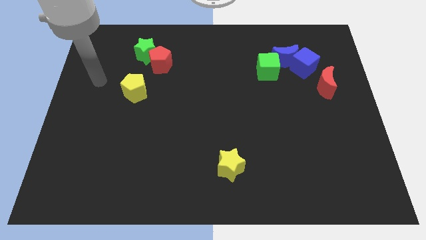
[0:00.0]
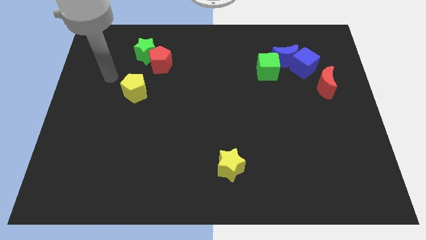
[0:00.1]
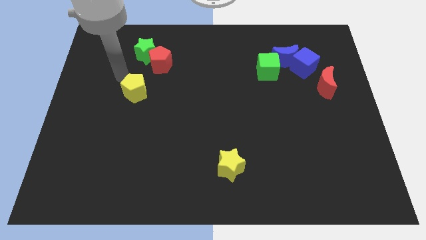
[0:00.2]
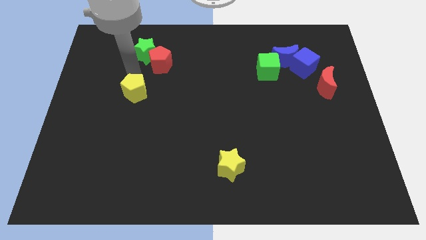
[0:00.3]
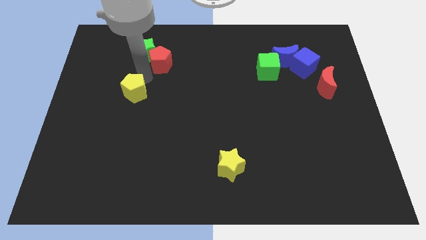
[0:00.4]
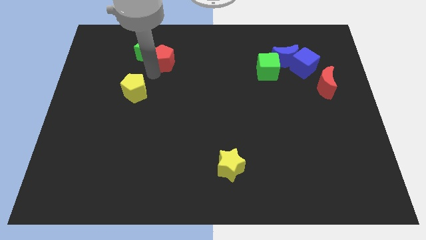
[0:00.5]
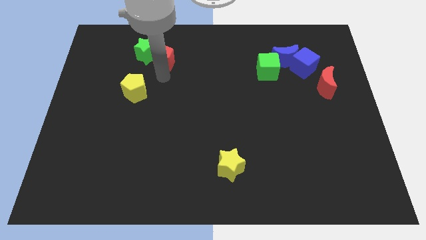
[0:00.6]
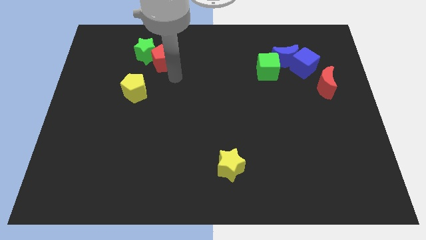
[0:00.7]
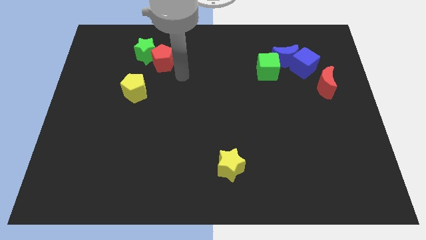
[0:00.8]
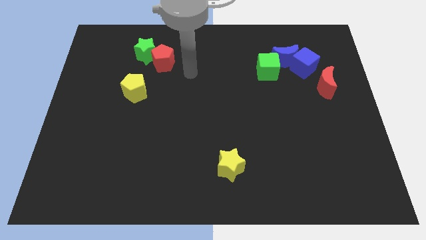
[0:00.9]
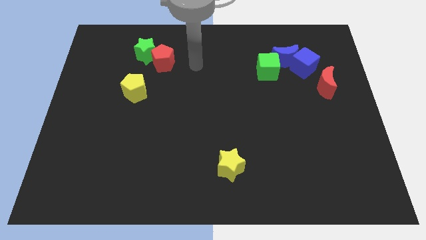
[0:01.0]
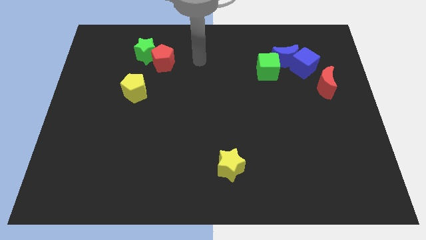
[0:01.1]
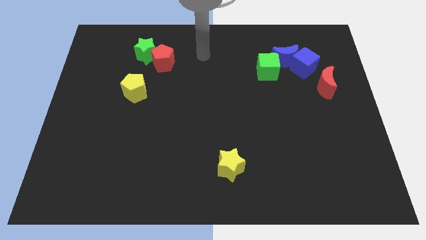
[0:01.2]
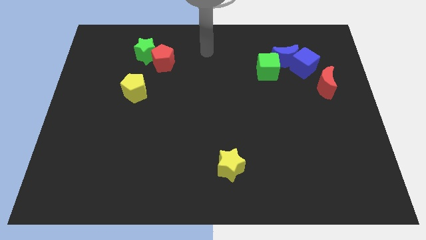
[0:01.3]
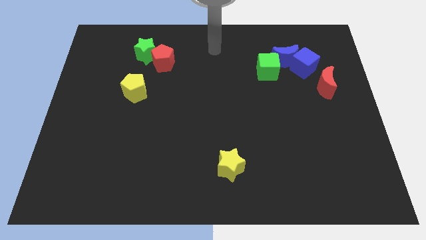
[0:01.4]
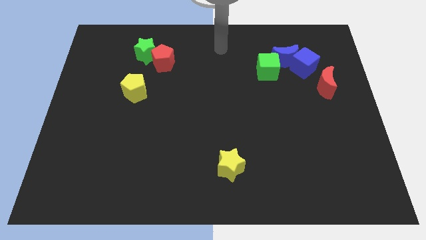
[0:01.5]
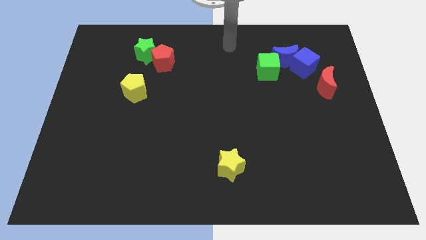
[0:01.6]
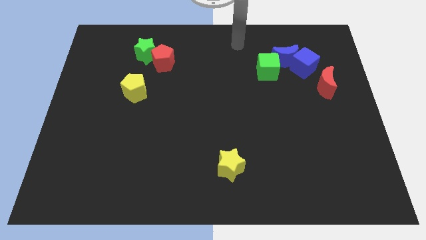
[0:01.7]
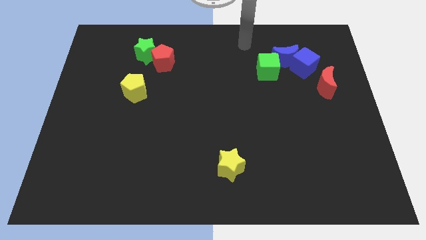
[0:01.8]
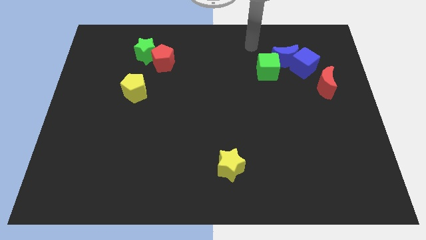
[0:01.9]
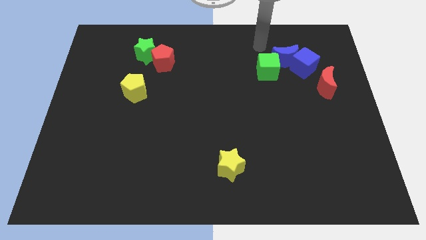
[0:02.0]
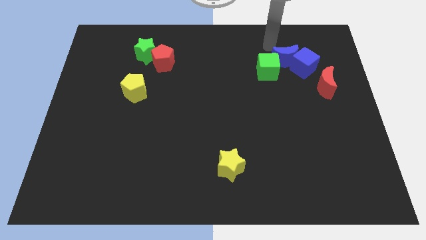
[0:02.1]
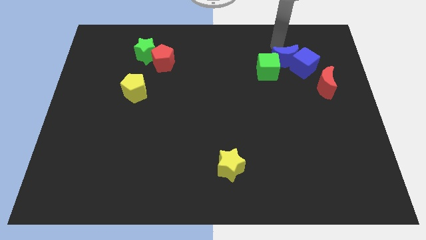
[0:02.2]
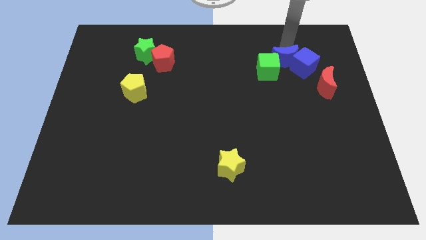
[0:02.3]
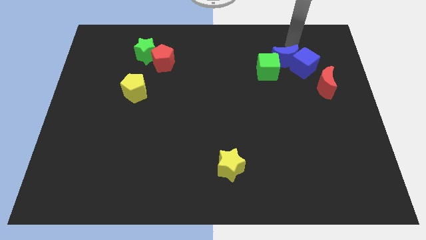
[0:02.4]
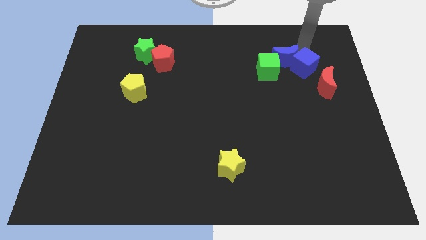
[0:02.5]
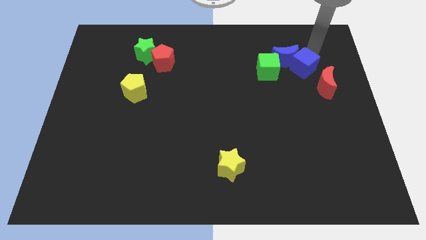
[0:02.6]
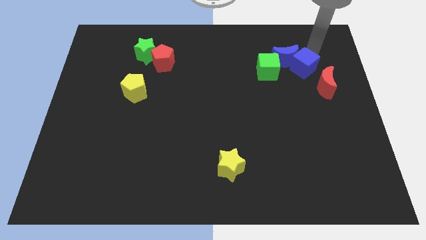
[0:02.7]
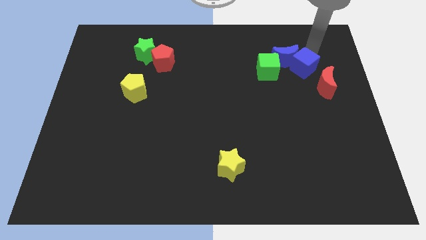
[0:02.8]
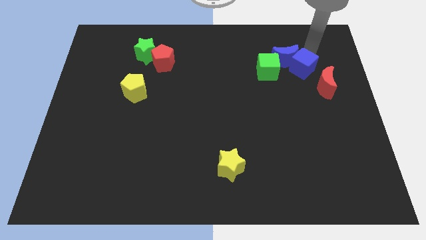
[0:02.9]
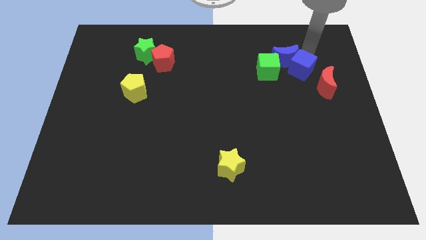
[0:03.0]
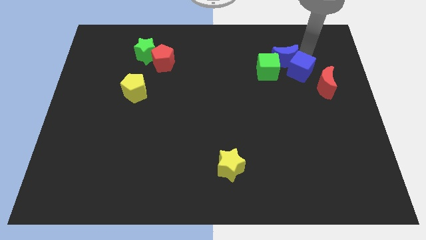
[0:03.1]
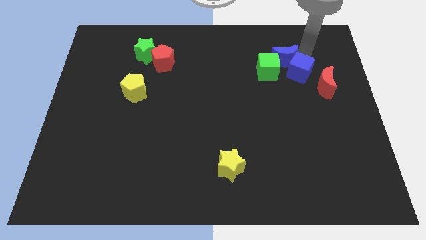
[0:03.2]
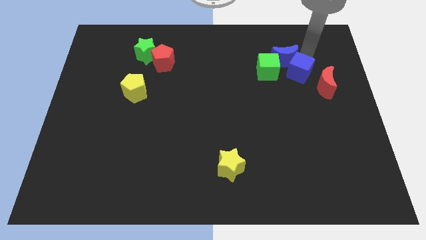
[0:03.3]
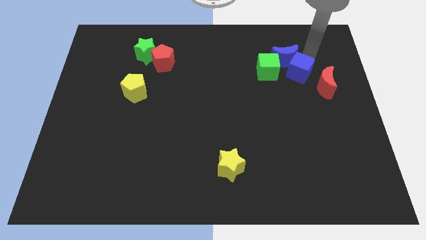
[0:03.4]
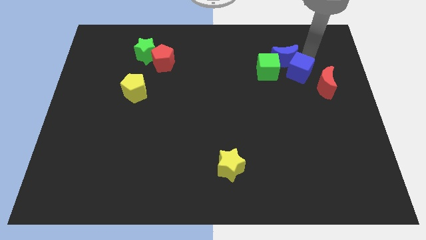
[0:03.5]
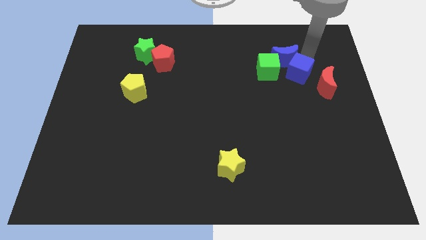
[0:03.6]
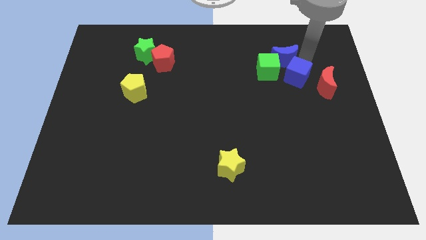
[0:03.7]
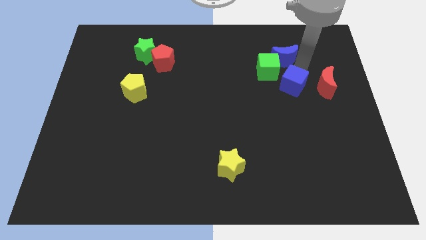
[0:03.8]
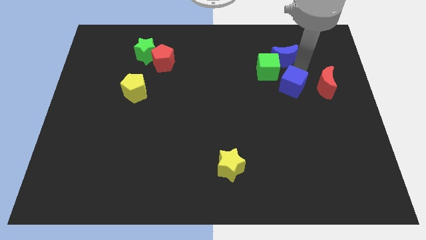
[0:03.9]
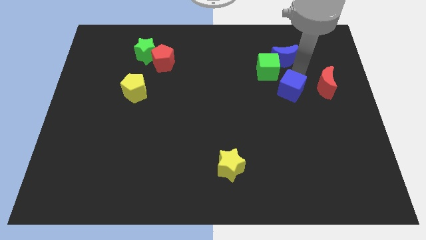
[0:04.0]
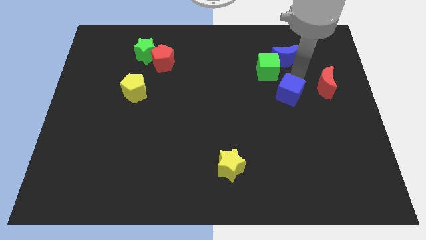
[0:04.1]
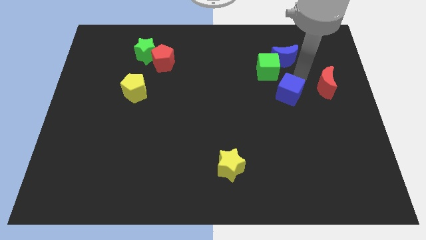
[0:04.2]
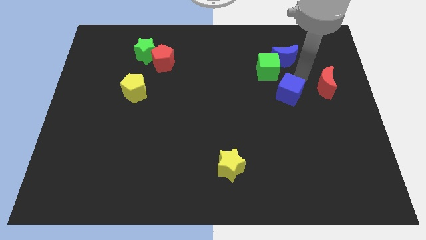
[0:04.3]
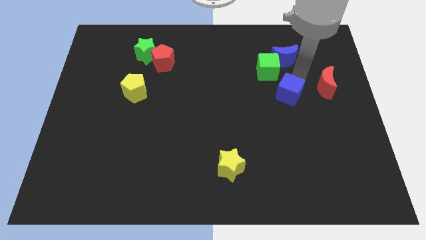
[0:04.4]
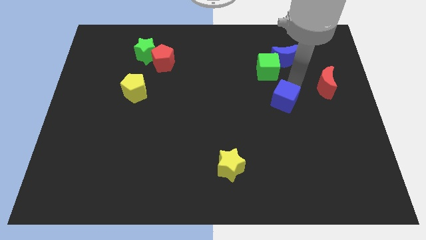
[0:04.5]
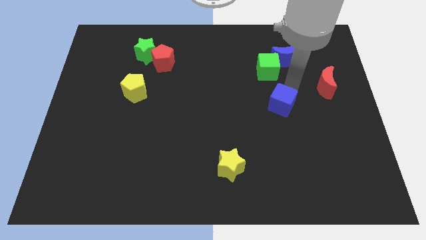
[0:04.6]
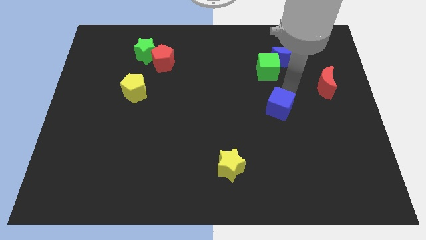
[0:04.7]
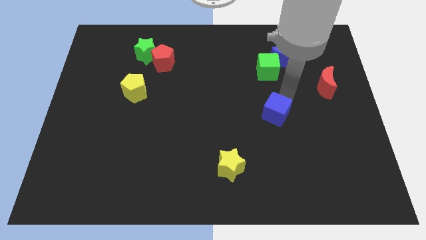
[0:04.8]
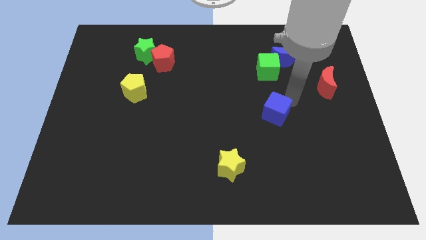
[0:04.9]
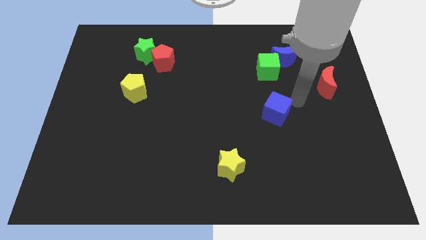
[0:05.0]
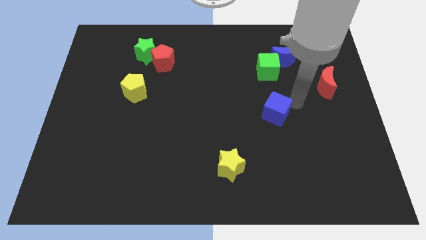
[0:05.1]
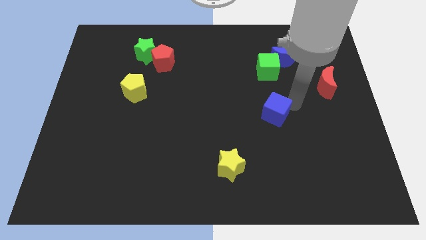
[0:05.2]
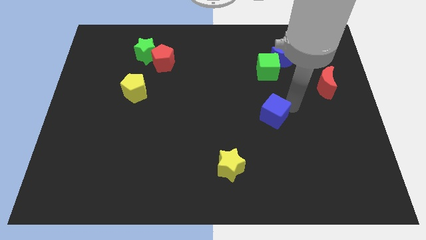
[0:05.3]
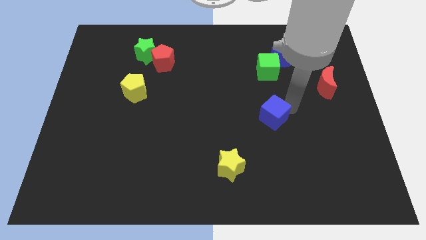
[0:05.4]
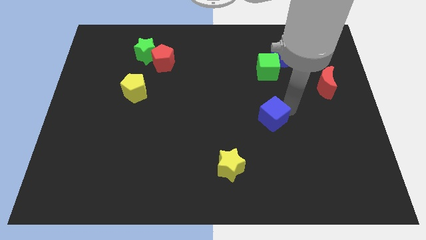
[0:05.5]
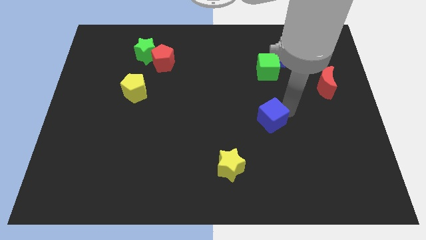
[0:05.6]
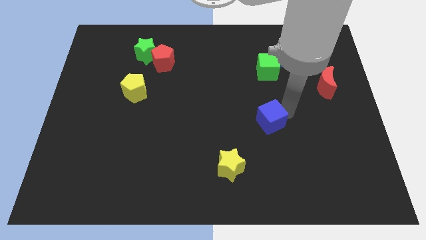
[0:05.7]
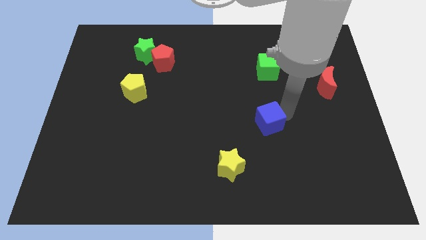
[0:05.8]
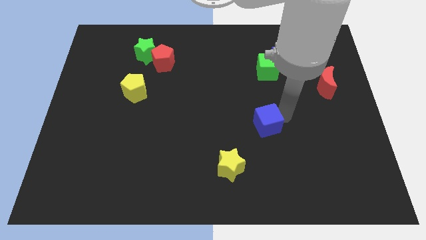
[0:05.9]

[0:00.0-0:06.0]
move the blue cube downwards and to the left

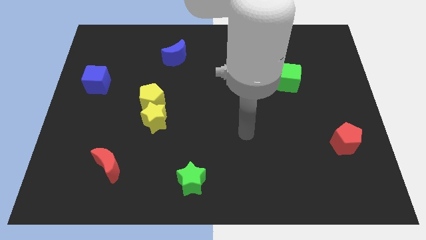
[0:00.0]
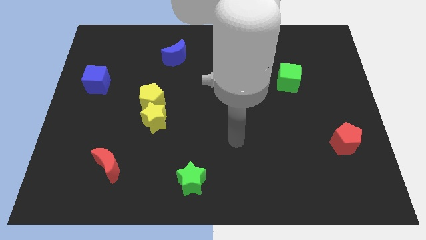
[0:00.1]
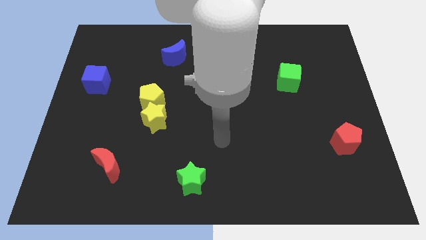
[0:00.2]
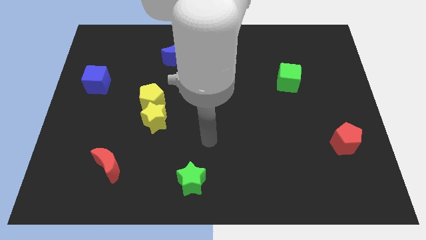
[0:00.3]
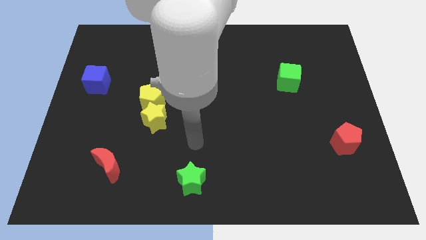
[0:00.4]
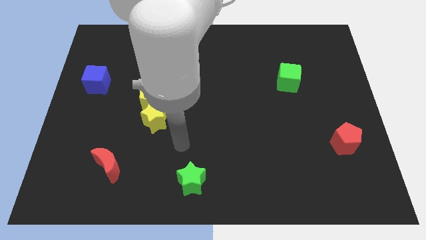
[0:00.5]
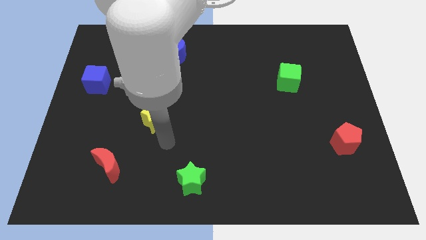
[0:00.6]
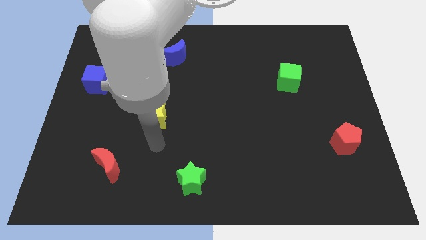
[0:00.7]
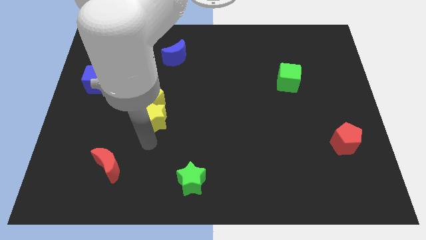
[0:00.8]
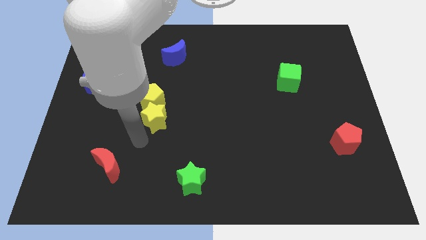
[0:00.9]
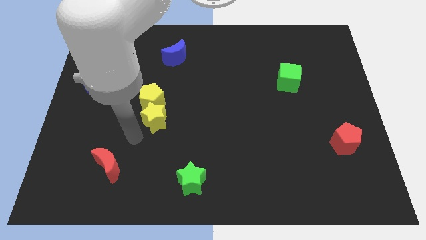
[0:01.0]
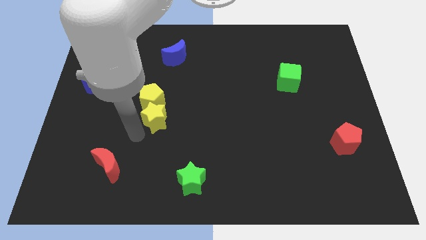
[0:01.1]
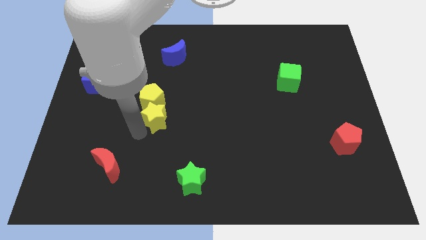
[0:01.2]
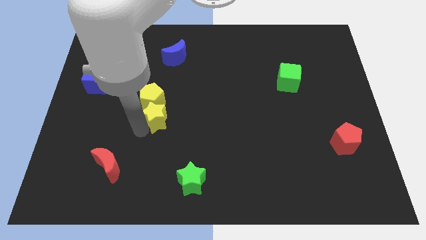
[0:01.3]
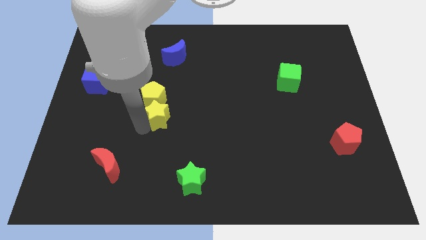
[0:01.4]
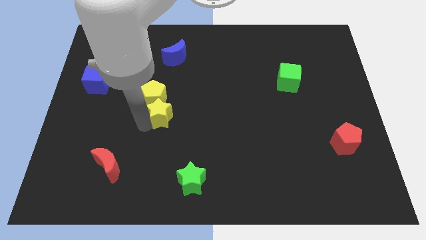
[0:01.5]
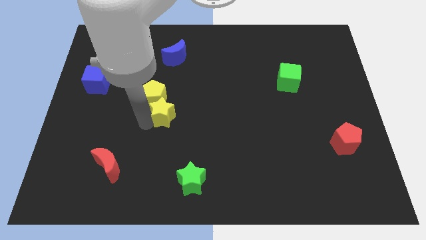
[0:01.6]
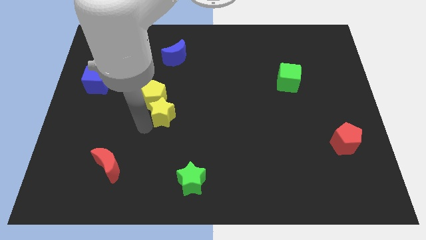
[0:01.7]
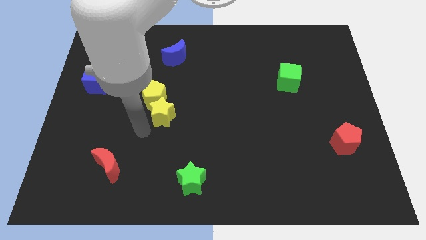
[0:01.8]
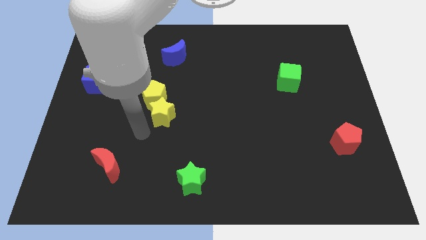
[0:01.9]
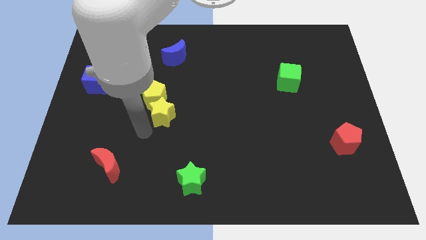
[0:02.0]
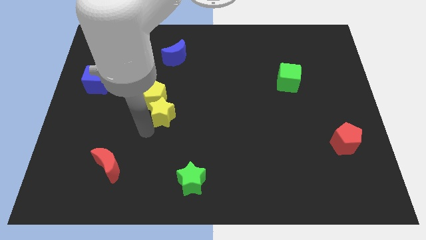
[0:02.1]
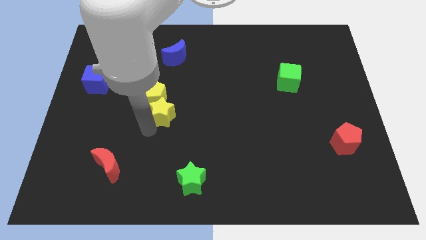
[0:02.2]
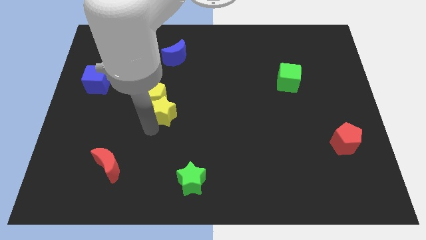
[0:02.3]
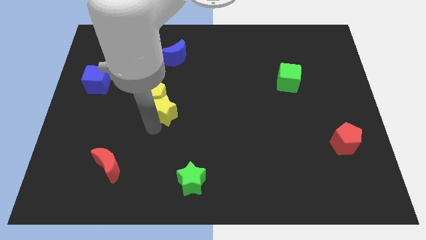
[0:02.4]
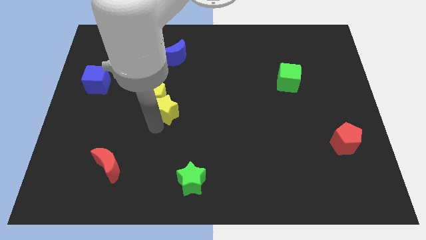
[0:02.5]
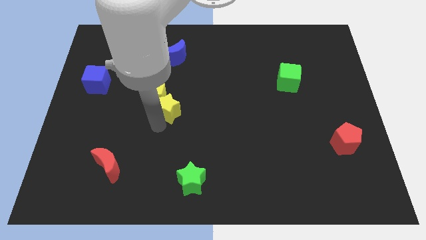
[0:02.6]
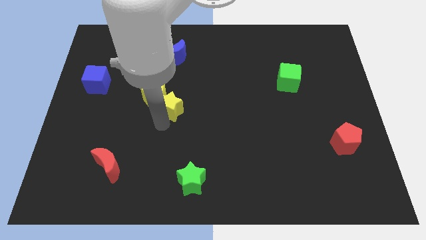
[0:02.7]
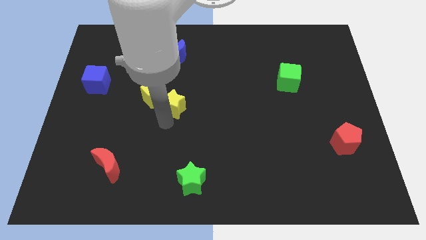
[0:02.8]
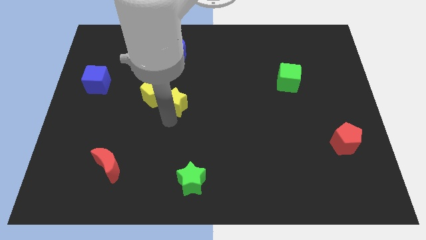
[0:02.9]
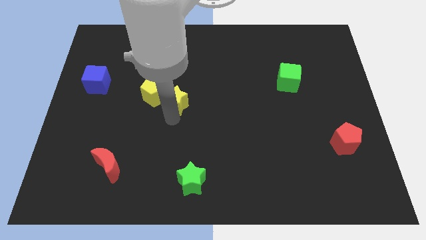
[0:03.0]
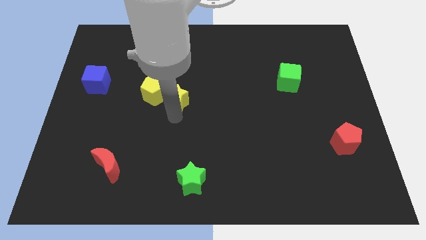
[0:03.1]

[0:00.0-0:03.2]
slightly slide the yellow star up and to the right
